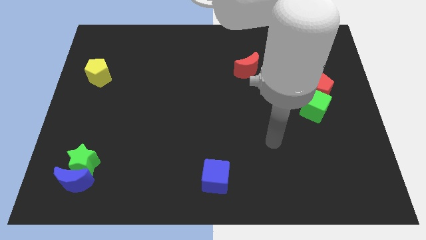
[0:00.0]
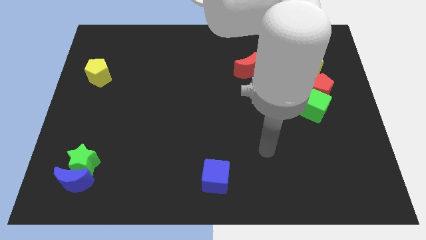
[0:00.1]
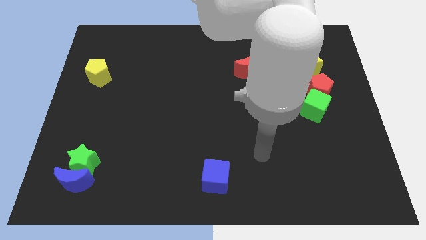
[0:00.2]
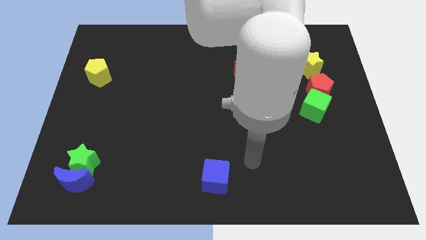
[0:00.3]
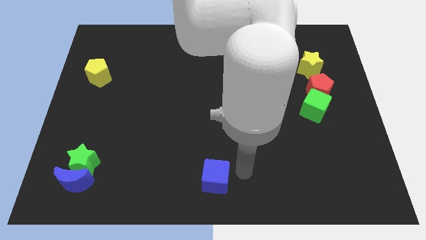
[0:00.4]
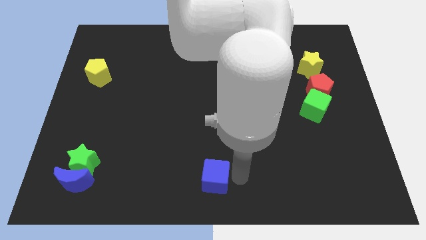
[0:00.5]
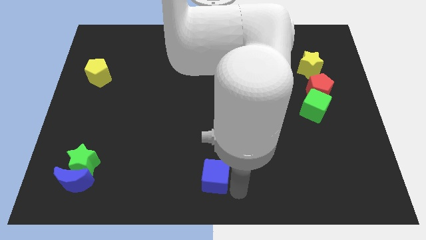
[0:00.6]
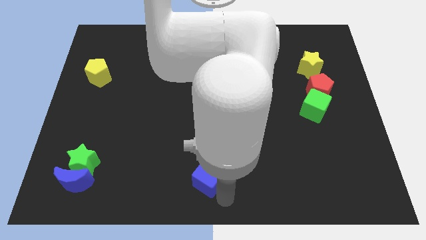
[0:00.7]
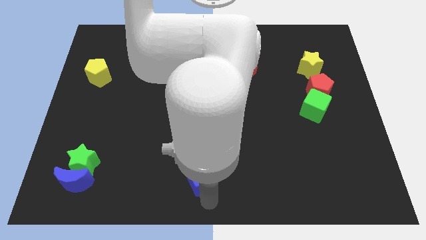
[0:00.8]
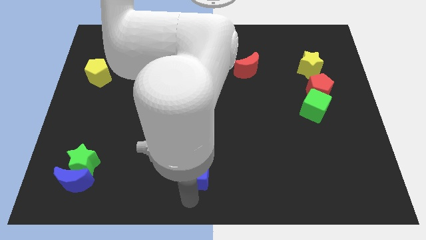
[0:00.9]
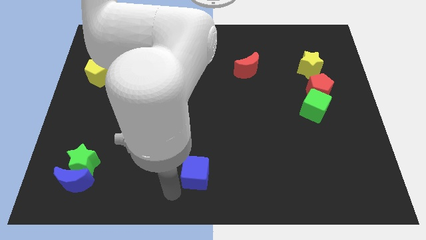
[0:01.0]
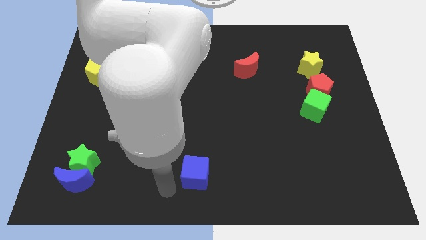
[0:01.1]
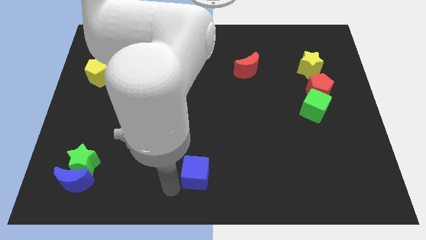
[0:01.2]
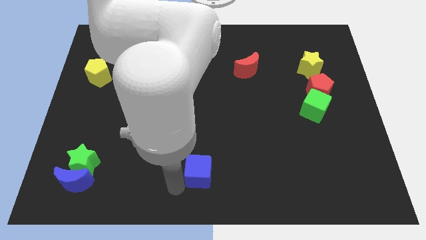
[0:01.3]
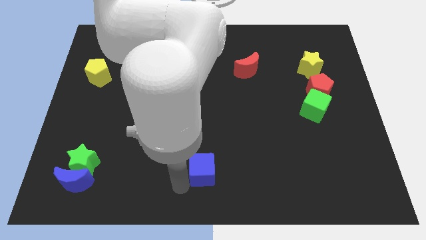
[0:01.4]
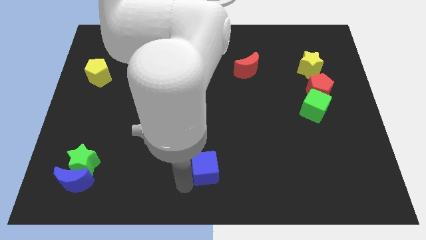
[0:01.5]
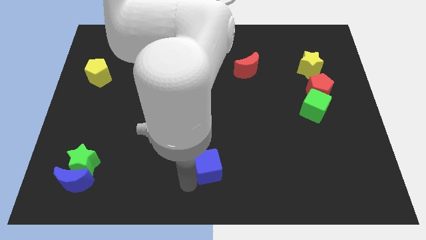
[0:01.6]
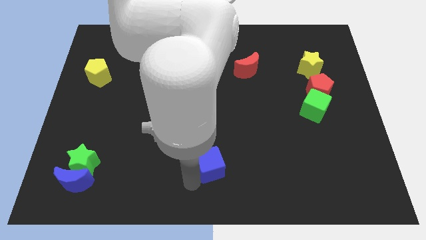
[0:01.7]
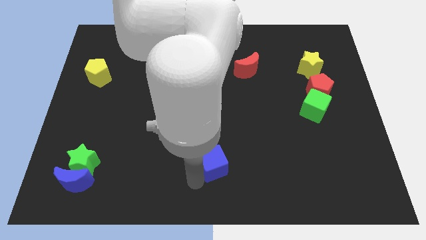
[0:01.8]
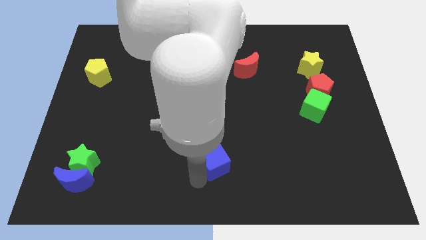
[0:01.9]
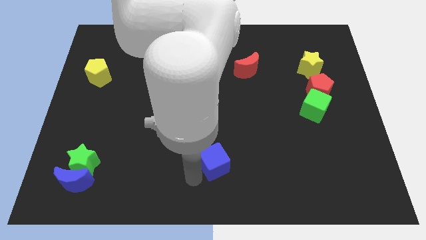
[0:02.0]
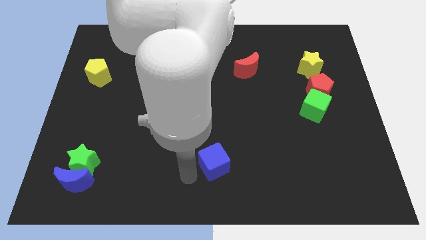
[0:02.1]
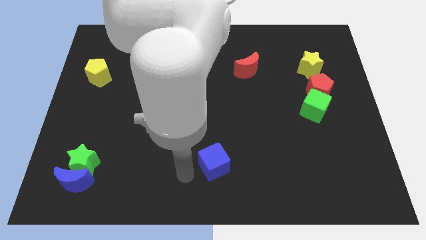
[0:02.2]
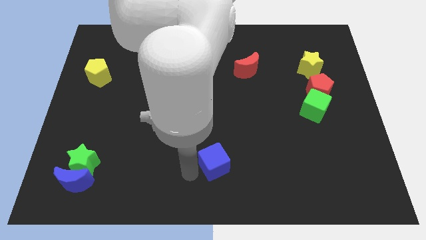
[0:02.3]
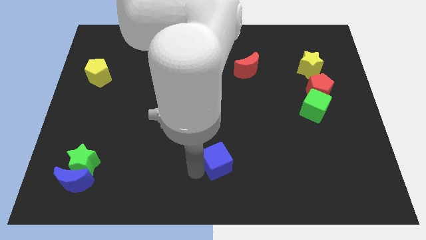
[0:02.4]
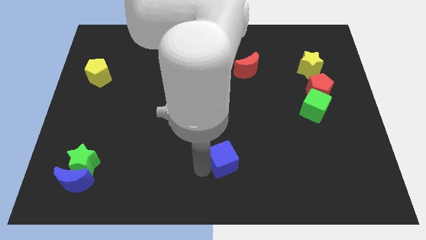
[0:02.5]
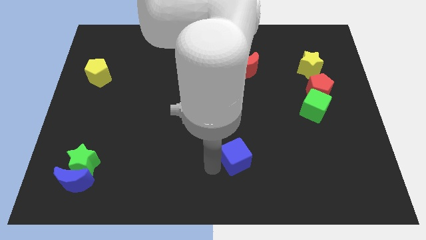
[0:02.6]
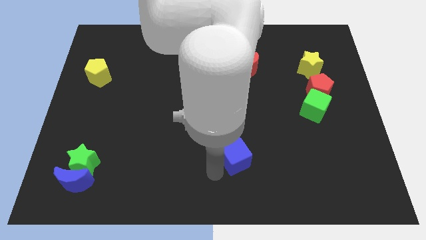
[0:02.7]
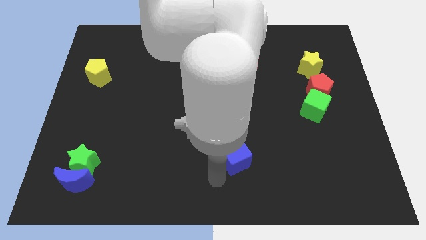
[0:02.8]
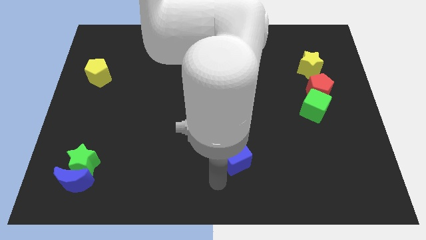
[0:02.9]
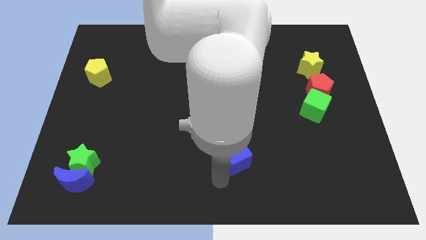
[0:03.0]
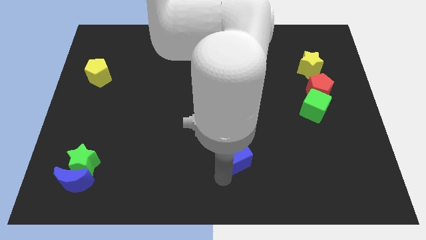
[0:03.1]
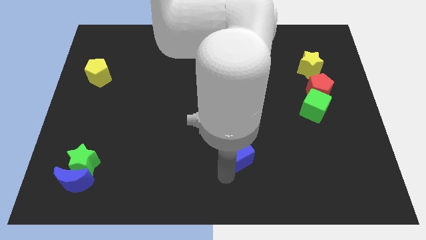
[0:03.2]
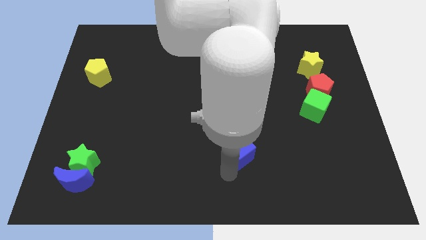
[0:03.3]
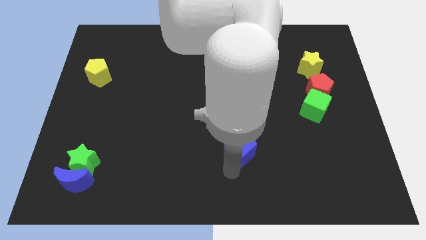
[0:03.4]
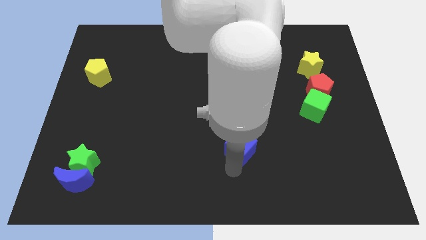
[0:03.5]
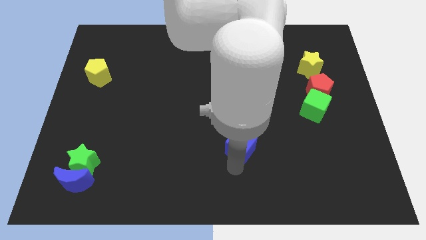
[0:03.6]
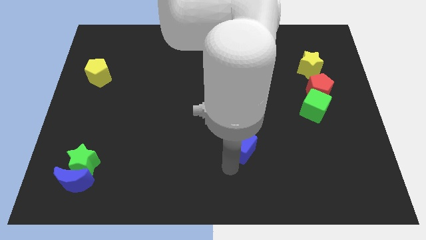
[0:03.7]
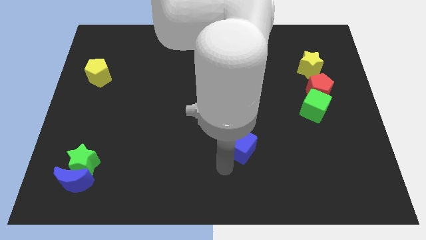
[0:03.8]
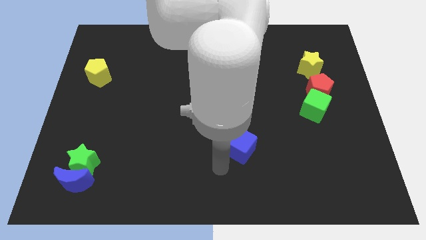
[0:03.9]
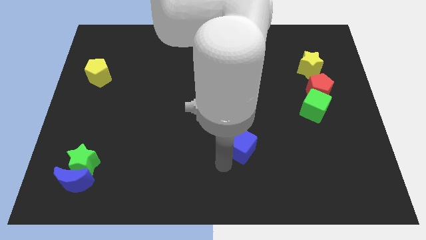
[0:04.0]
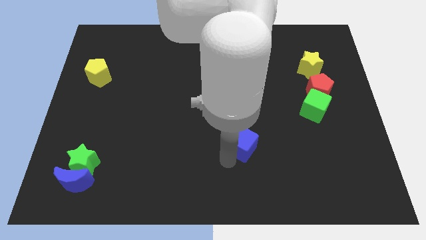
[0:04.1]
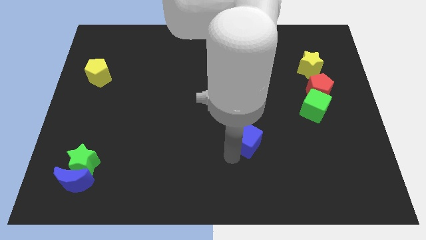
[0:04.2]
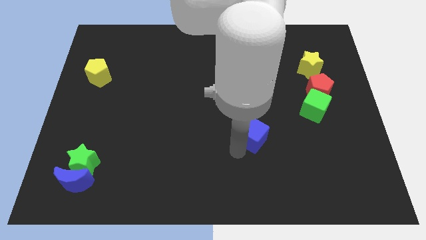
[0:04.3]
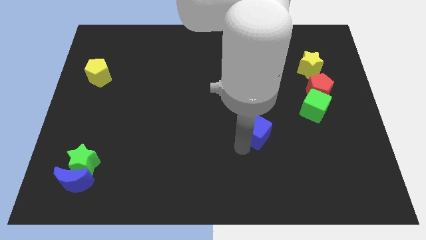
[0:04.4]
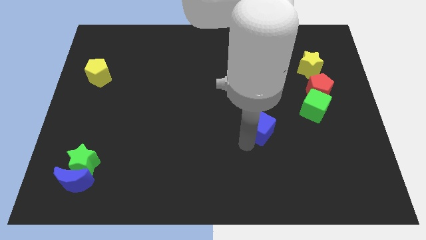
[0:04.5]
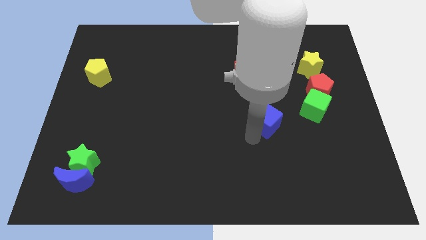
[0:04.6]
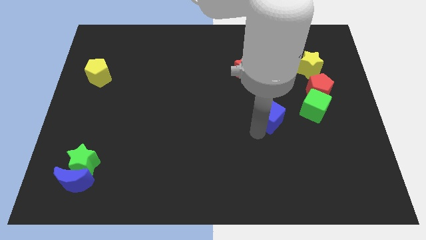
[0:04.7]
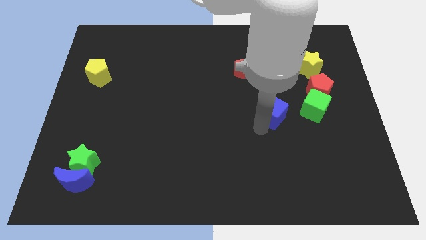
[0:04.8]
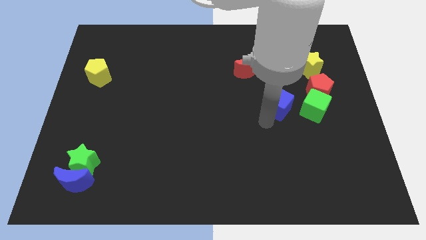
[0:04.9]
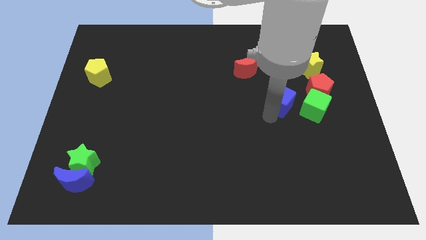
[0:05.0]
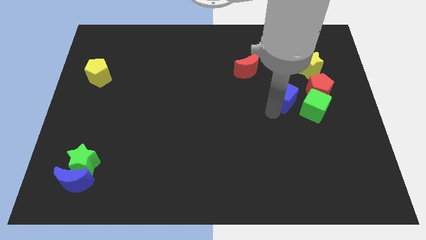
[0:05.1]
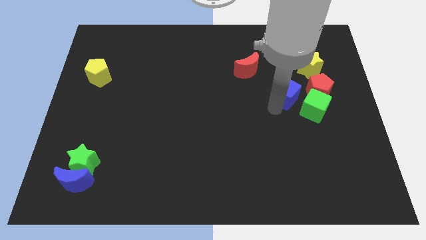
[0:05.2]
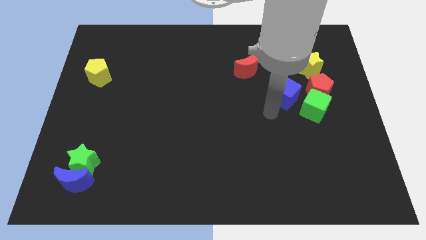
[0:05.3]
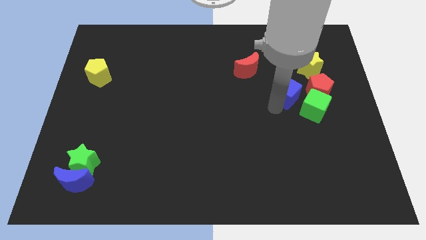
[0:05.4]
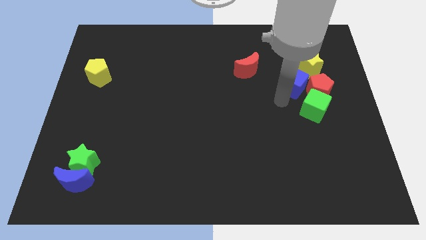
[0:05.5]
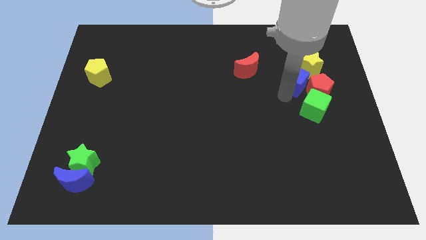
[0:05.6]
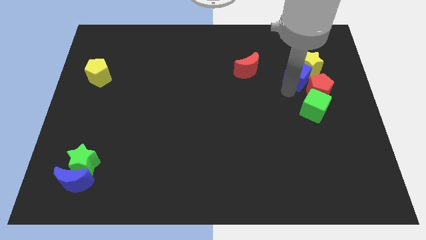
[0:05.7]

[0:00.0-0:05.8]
push the blue cube close to the yellow star

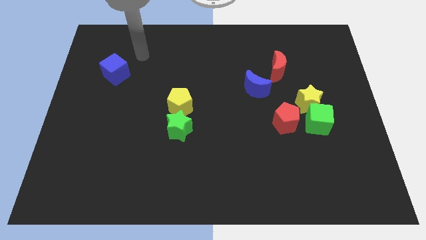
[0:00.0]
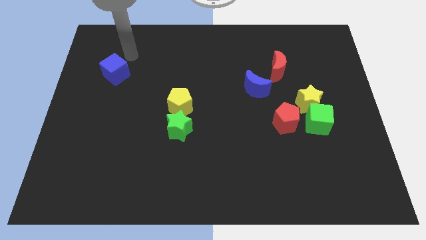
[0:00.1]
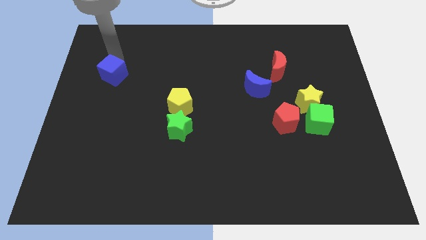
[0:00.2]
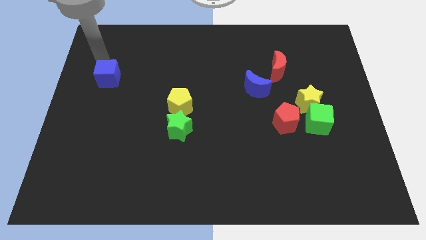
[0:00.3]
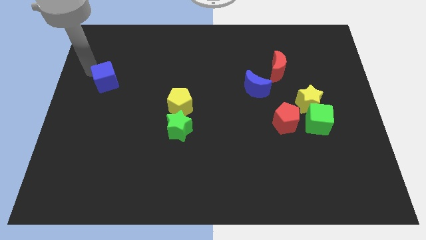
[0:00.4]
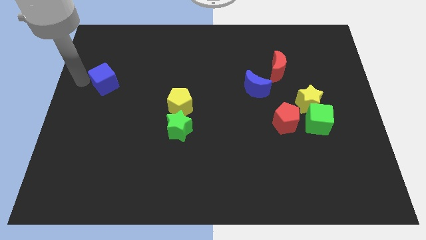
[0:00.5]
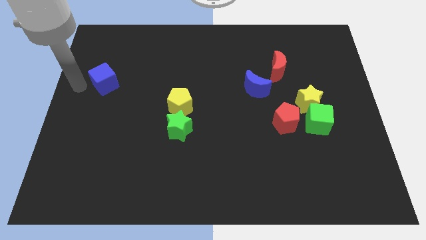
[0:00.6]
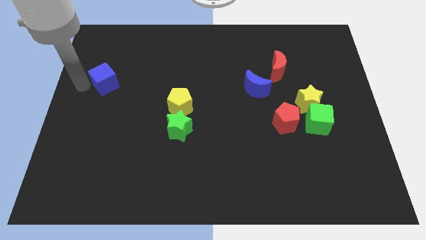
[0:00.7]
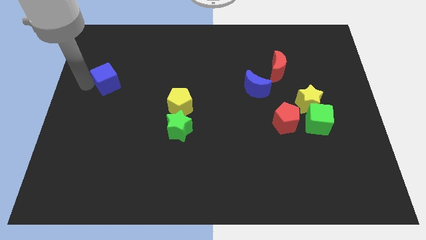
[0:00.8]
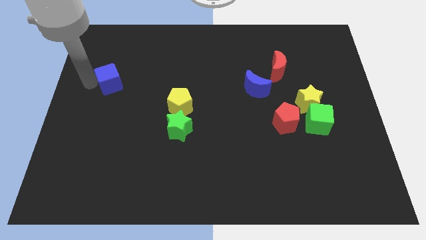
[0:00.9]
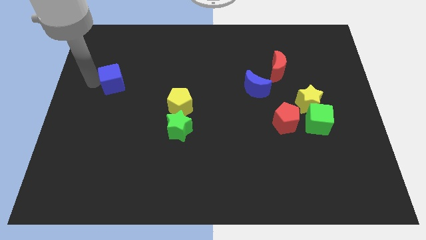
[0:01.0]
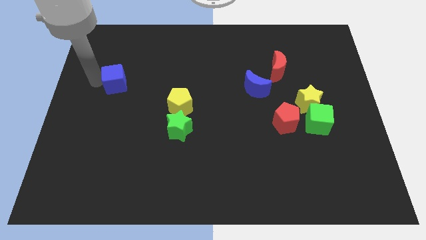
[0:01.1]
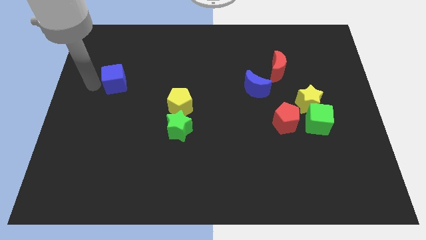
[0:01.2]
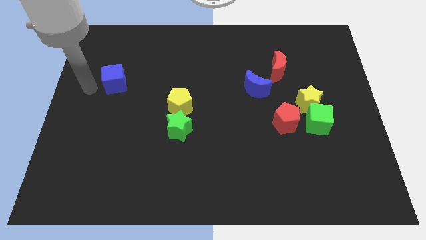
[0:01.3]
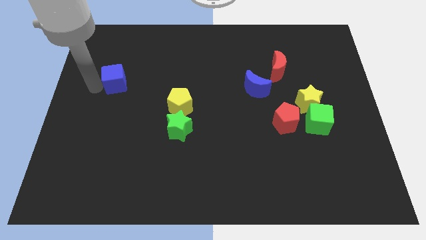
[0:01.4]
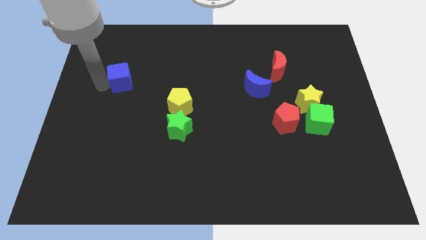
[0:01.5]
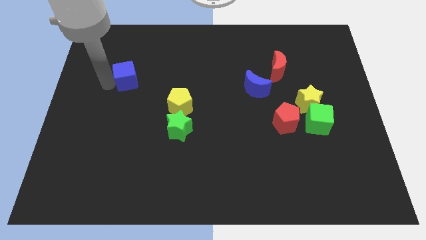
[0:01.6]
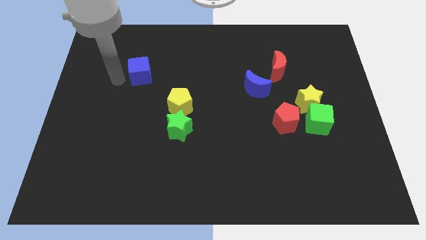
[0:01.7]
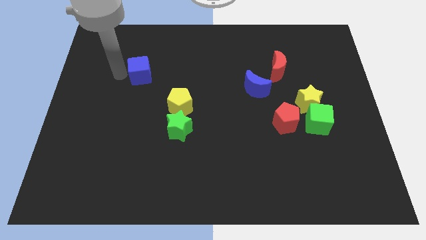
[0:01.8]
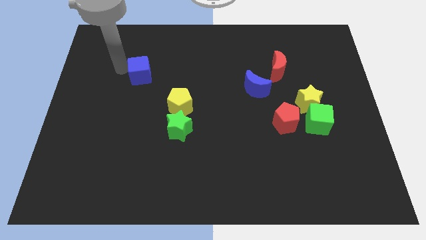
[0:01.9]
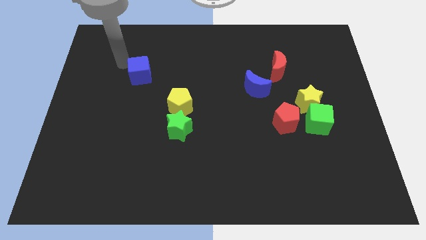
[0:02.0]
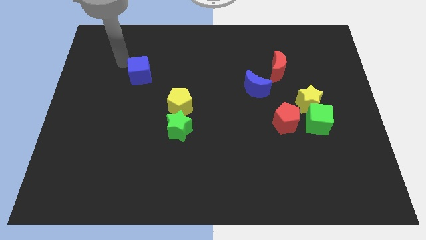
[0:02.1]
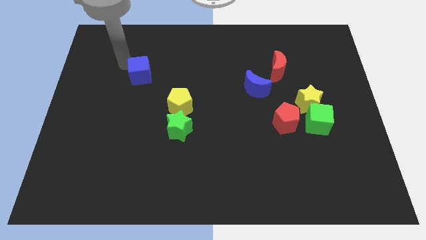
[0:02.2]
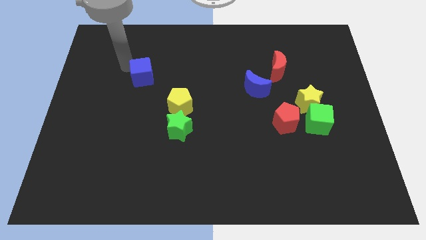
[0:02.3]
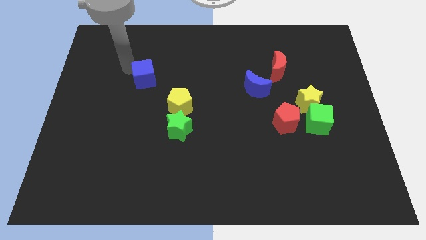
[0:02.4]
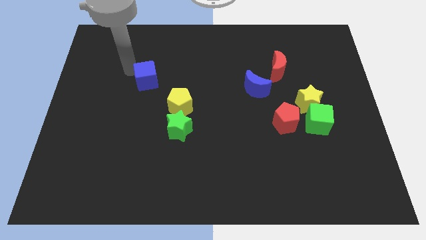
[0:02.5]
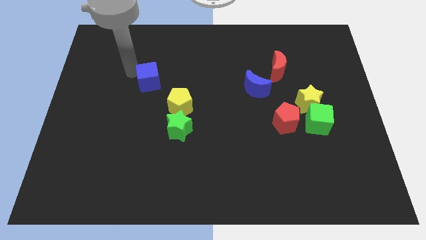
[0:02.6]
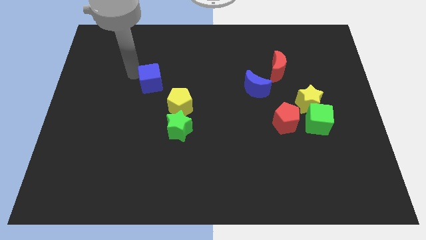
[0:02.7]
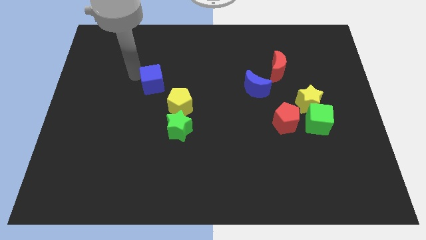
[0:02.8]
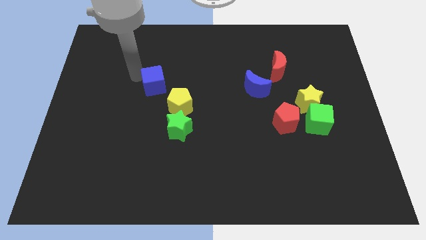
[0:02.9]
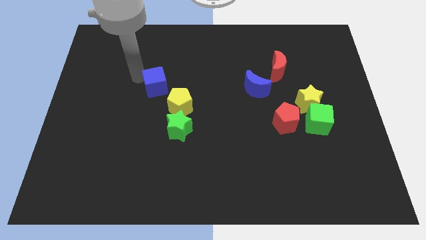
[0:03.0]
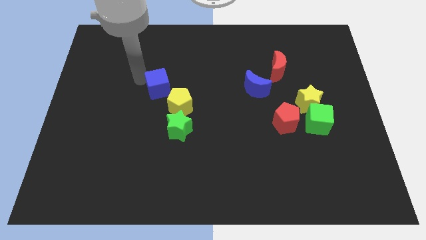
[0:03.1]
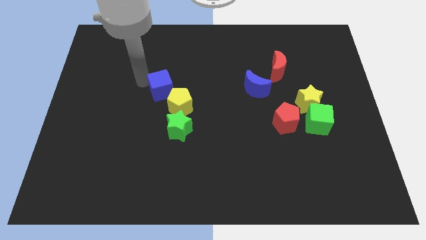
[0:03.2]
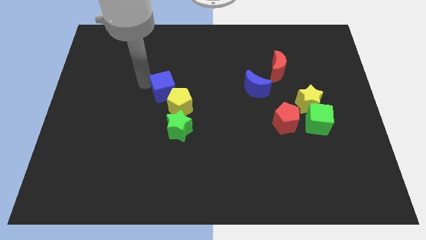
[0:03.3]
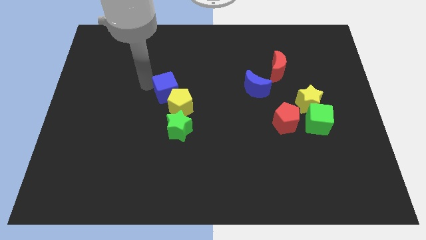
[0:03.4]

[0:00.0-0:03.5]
push the blue cube next to the yellow pentagon
